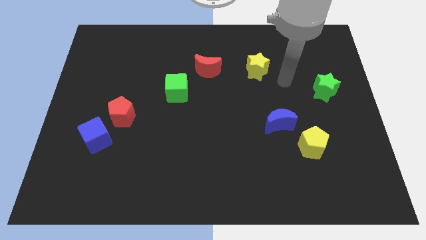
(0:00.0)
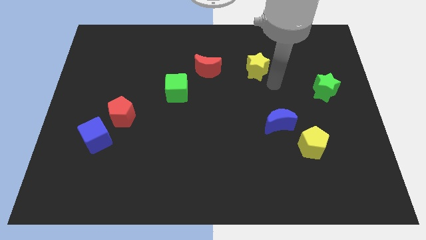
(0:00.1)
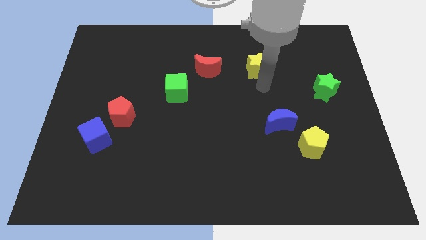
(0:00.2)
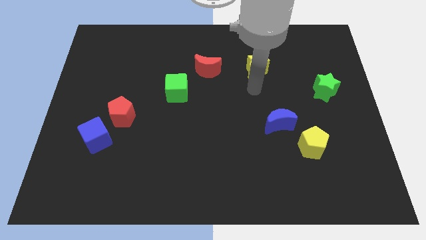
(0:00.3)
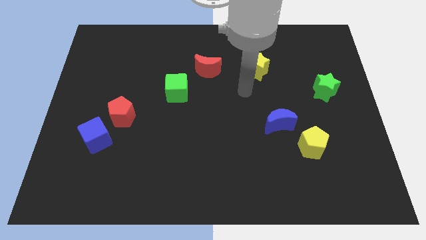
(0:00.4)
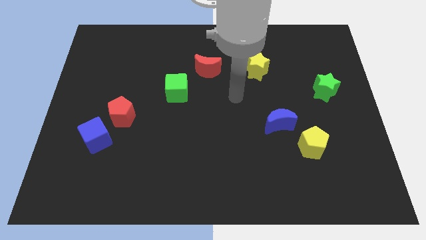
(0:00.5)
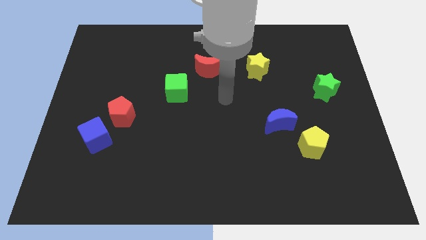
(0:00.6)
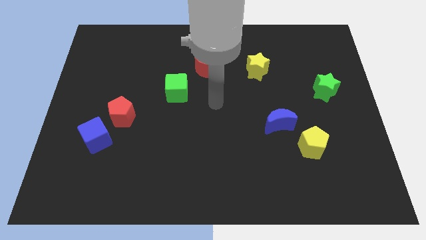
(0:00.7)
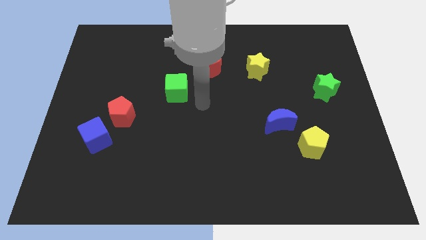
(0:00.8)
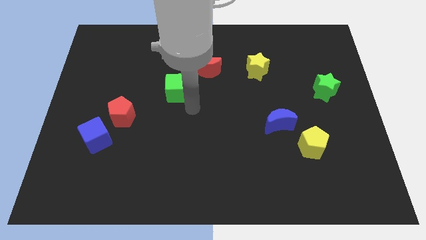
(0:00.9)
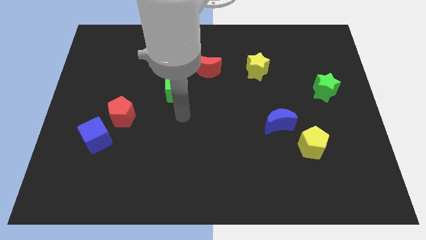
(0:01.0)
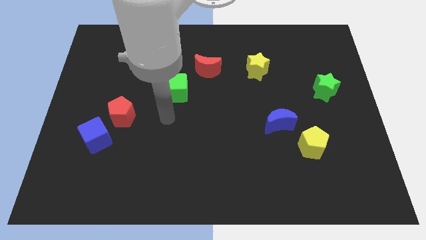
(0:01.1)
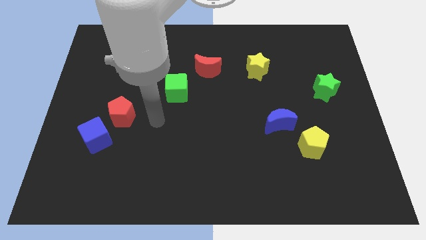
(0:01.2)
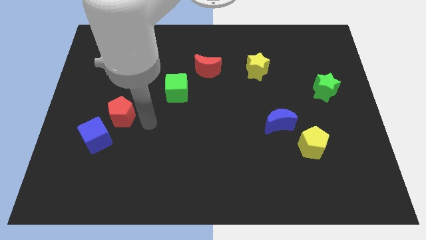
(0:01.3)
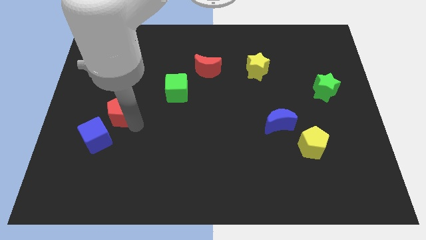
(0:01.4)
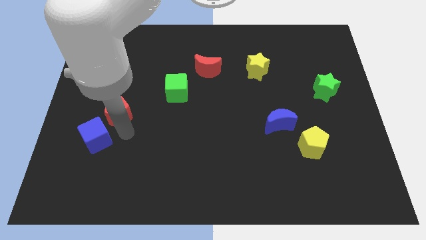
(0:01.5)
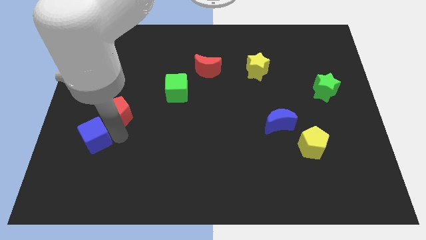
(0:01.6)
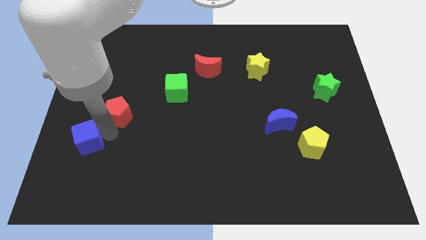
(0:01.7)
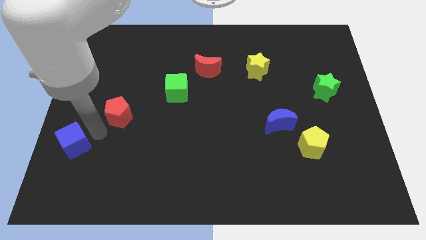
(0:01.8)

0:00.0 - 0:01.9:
move the red pentagon away from the blue cube

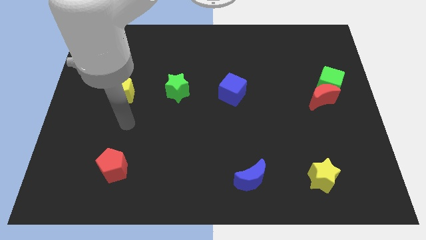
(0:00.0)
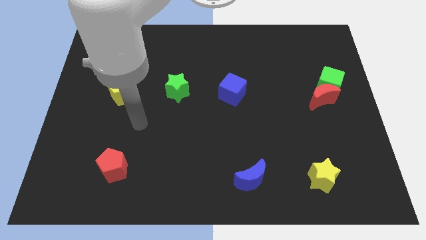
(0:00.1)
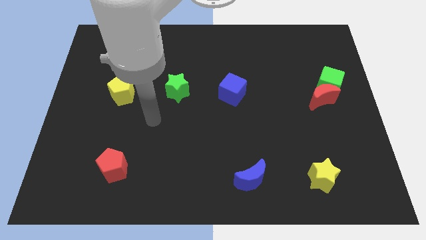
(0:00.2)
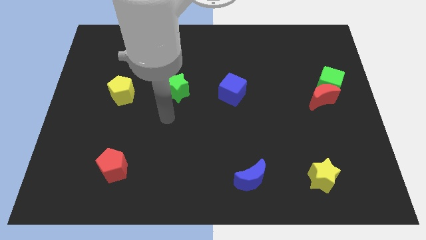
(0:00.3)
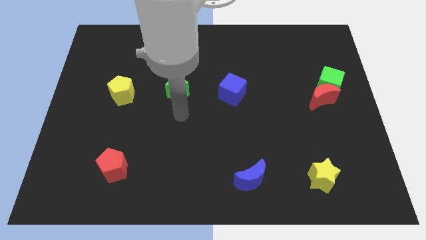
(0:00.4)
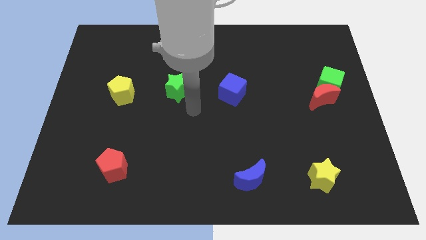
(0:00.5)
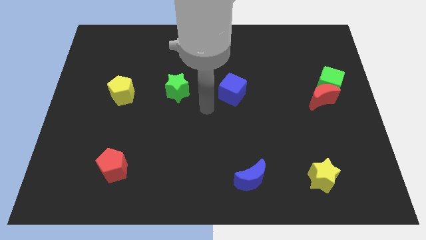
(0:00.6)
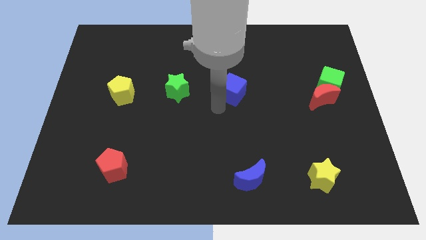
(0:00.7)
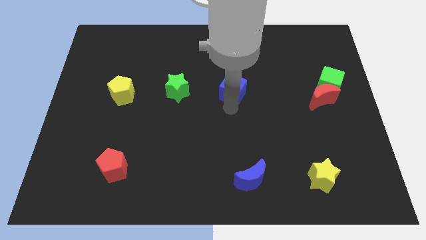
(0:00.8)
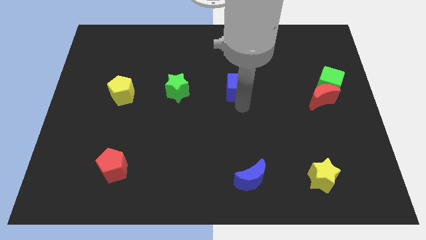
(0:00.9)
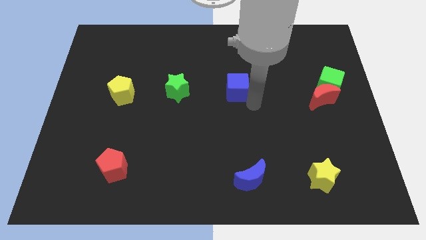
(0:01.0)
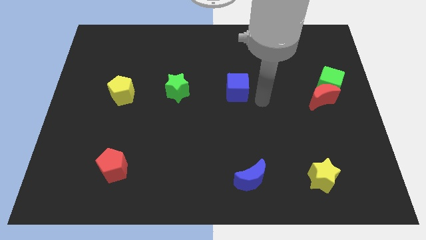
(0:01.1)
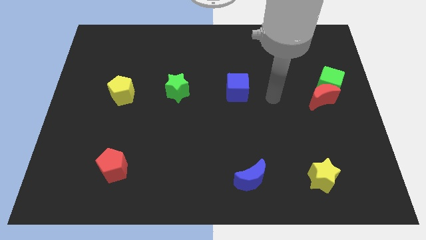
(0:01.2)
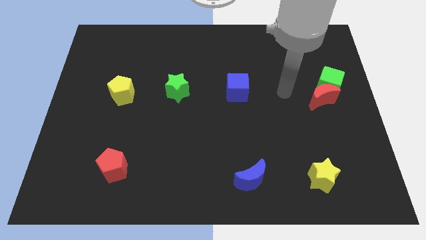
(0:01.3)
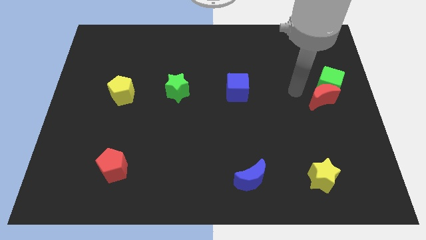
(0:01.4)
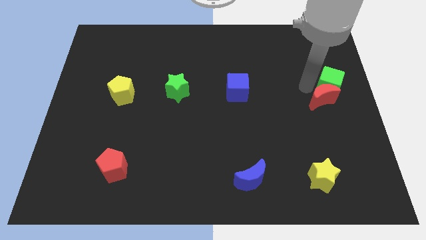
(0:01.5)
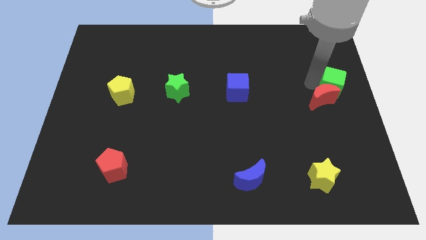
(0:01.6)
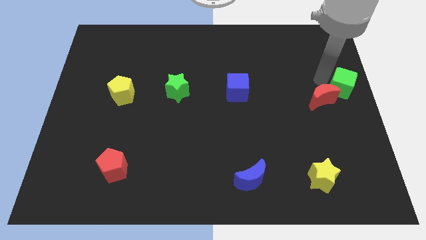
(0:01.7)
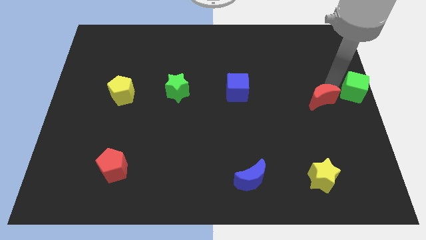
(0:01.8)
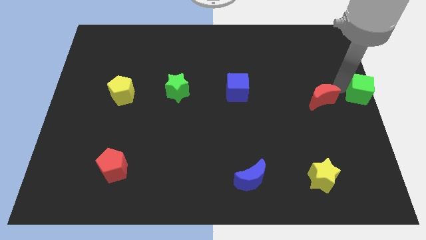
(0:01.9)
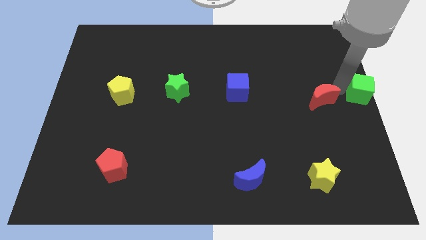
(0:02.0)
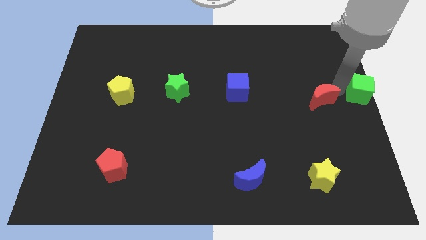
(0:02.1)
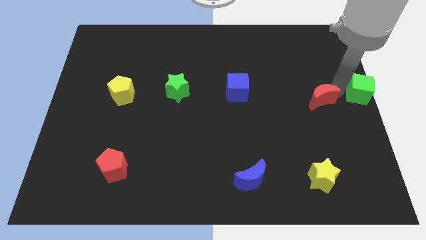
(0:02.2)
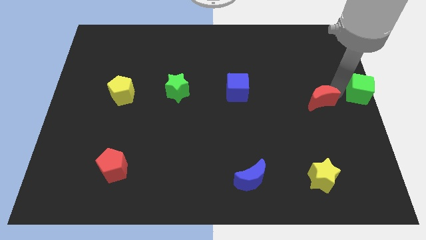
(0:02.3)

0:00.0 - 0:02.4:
separate the red moon from the green cube

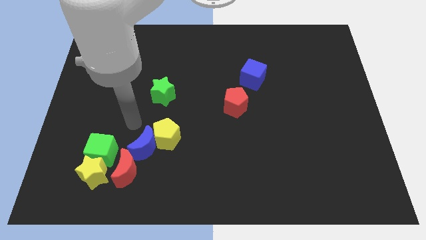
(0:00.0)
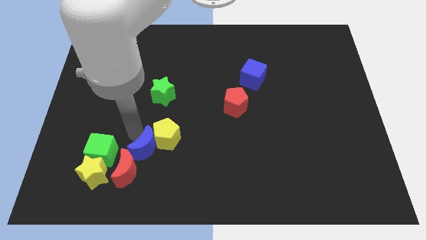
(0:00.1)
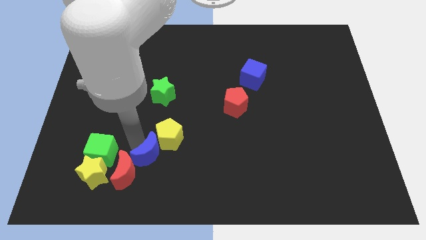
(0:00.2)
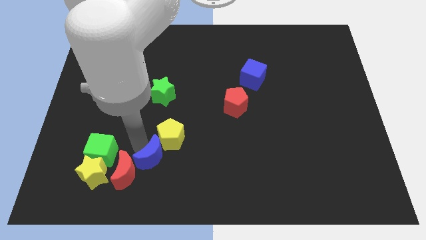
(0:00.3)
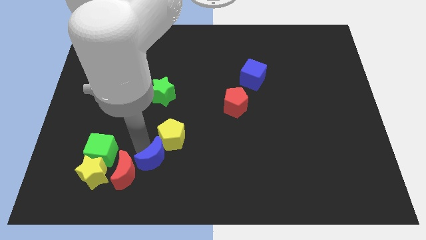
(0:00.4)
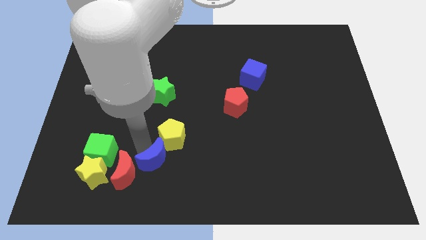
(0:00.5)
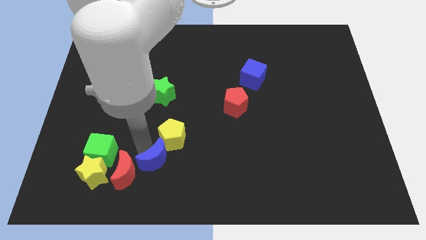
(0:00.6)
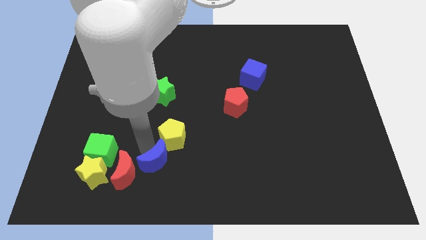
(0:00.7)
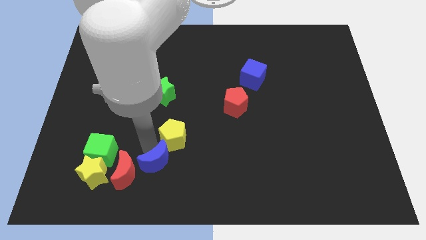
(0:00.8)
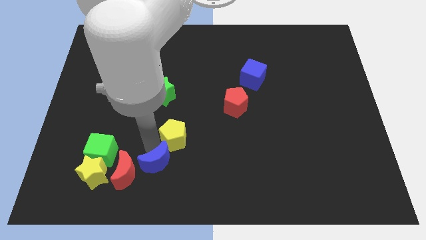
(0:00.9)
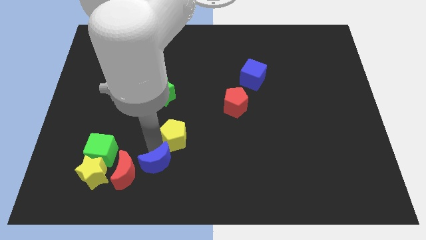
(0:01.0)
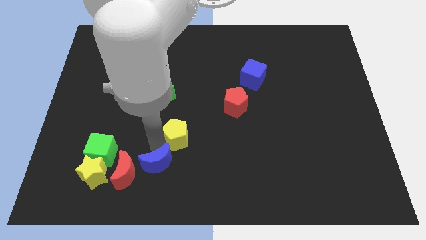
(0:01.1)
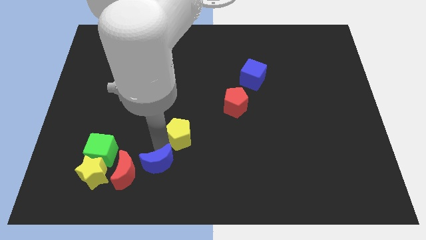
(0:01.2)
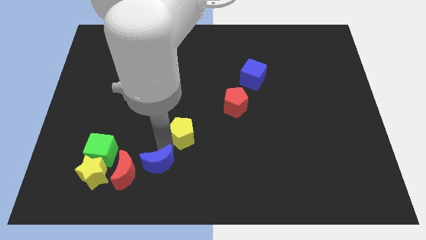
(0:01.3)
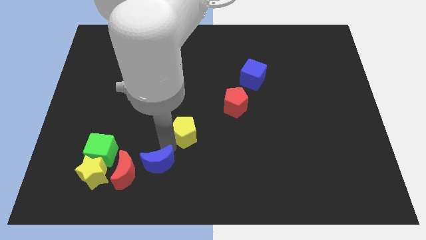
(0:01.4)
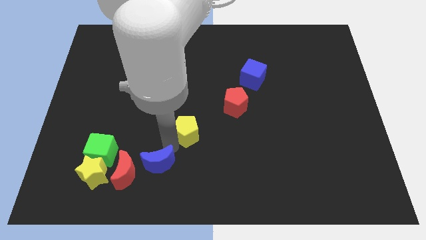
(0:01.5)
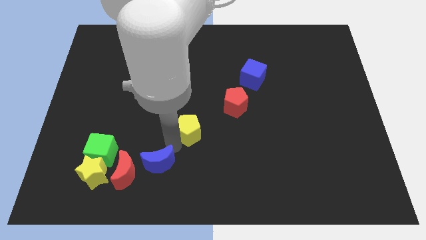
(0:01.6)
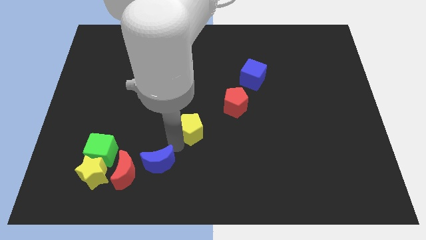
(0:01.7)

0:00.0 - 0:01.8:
pull the yellow pentagon apart from the blue moon

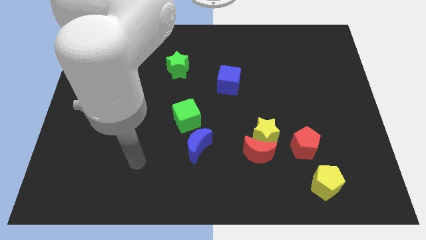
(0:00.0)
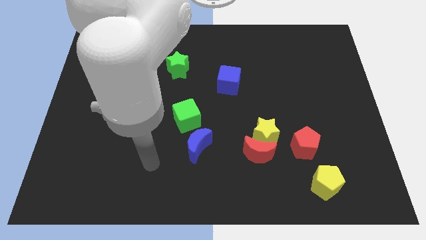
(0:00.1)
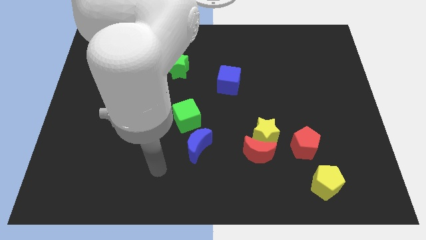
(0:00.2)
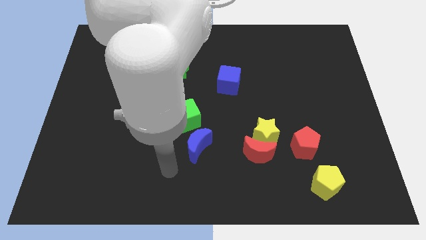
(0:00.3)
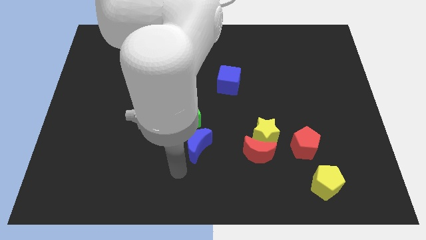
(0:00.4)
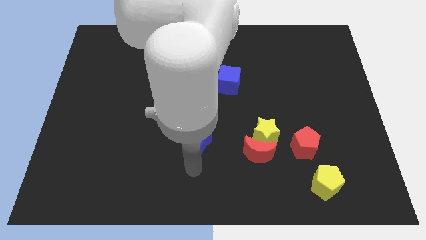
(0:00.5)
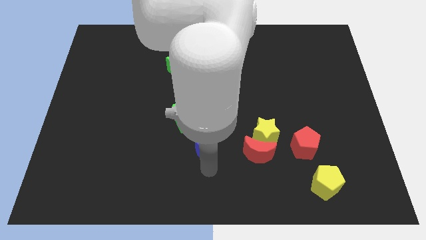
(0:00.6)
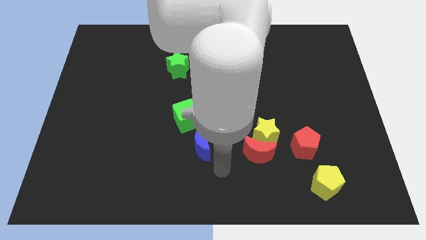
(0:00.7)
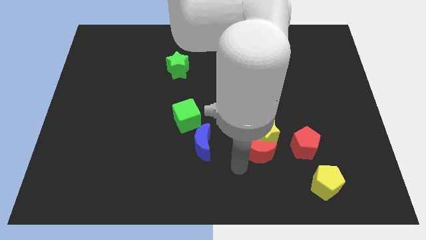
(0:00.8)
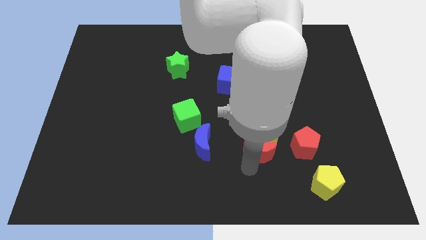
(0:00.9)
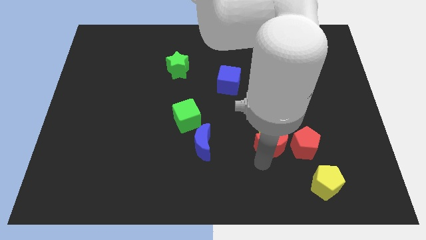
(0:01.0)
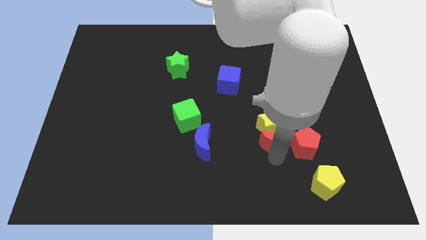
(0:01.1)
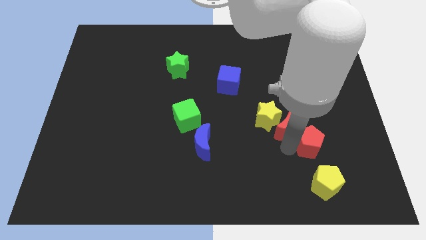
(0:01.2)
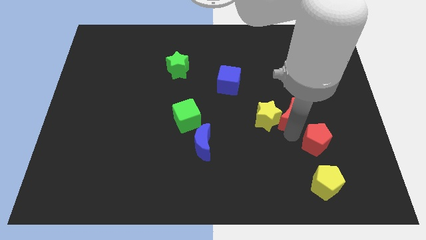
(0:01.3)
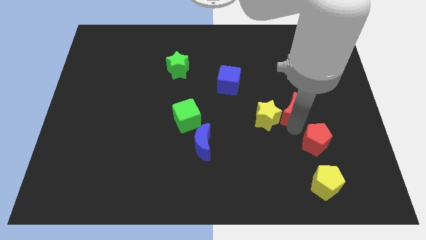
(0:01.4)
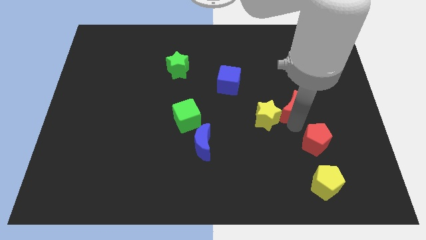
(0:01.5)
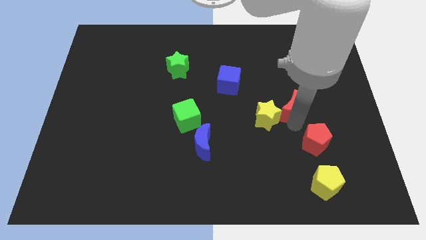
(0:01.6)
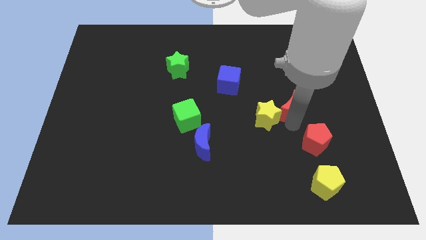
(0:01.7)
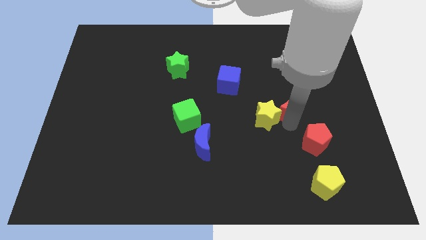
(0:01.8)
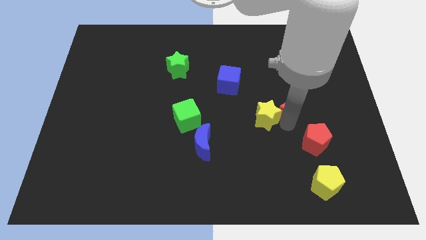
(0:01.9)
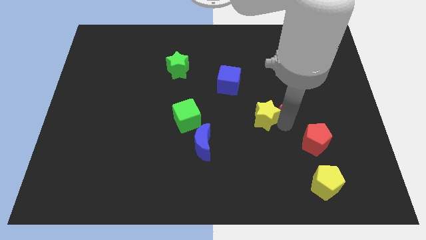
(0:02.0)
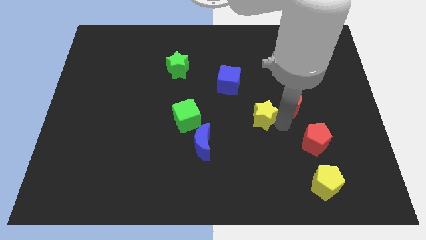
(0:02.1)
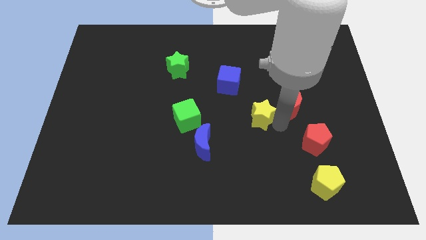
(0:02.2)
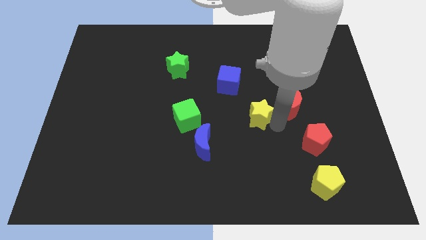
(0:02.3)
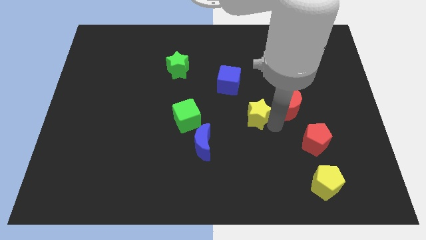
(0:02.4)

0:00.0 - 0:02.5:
separate the yellow star from the red moon and red pentagon

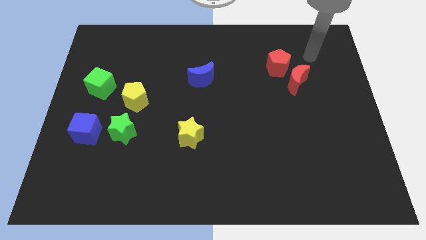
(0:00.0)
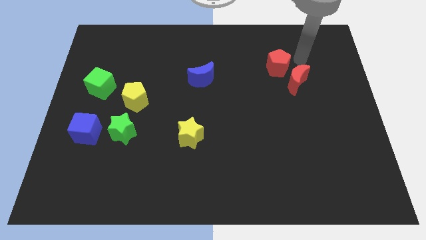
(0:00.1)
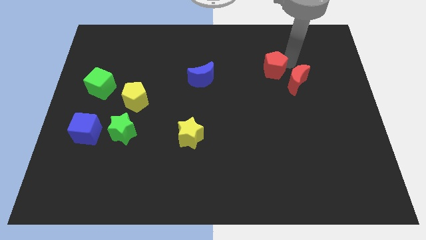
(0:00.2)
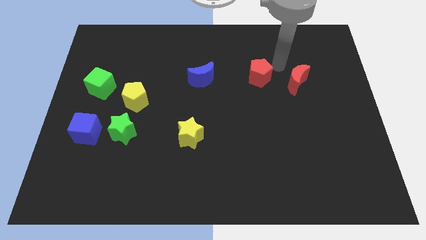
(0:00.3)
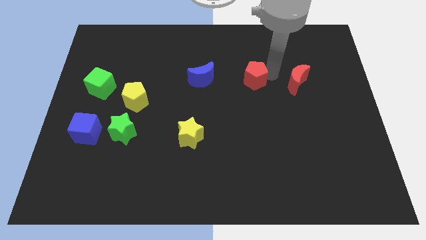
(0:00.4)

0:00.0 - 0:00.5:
separate the red moon from the red pentagon

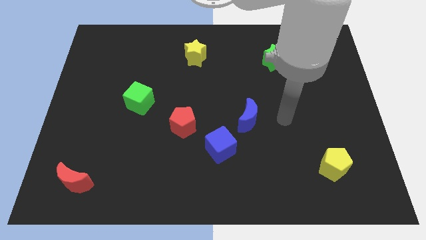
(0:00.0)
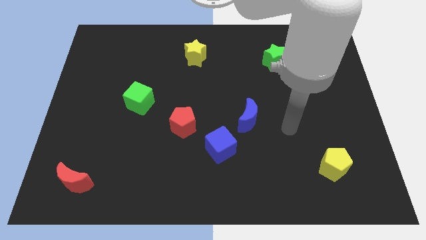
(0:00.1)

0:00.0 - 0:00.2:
move the blue moon away from the blue cube
